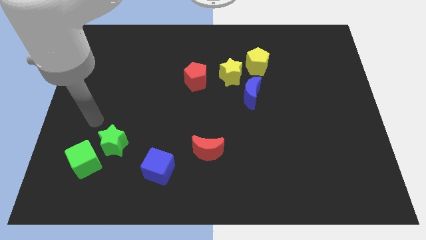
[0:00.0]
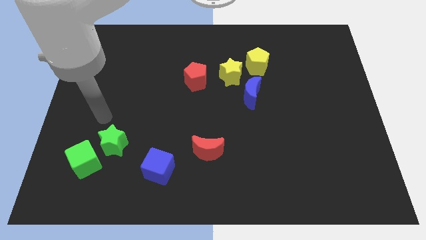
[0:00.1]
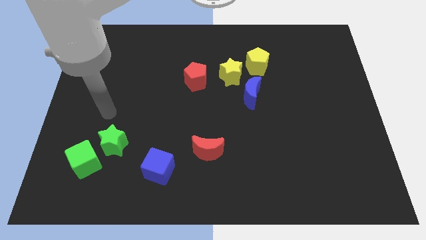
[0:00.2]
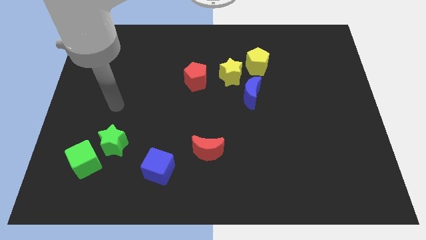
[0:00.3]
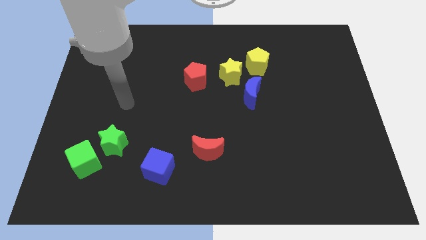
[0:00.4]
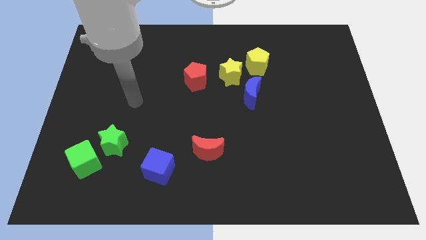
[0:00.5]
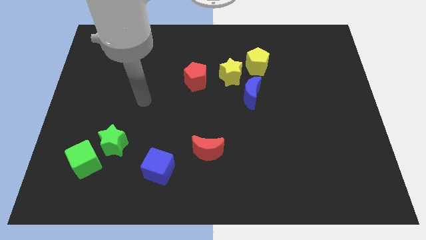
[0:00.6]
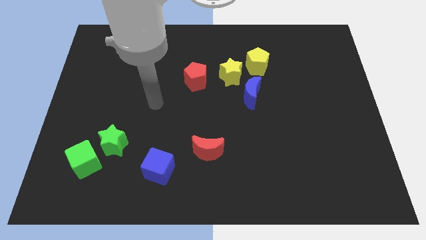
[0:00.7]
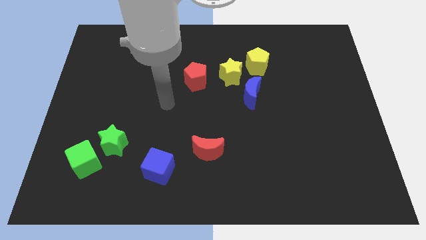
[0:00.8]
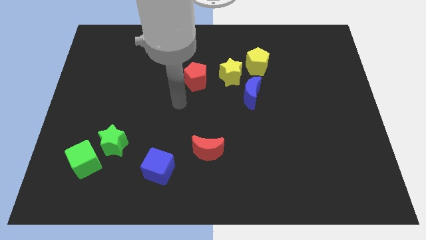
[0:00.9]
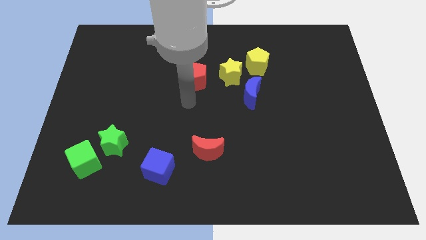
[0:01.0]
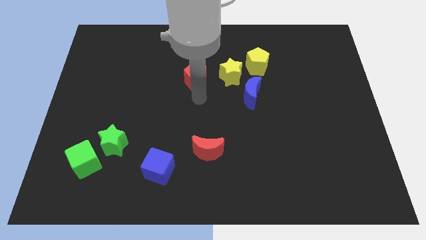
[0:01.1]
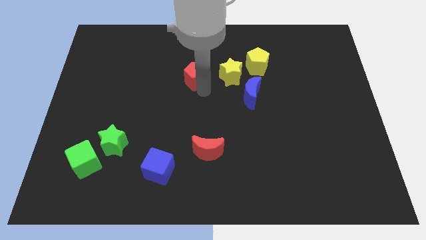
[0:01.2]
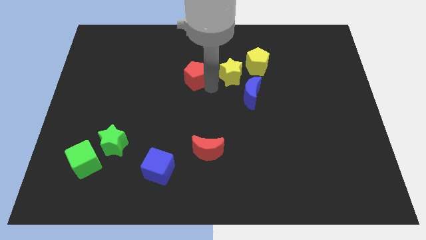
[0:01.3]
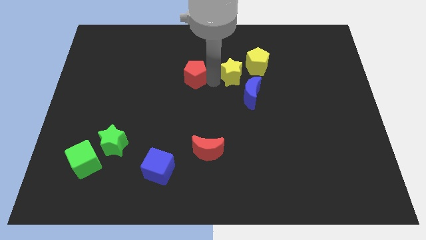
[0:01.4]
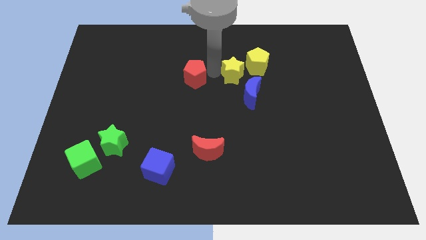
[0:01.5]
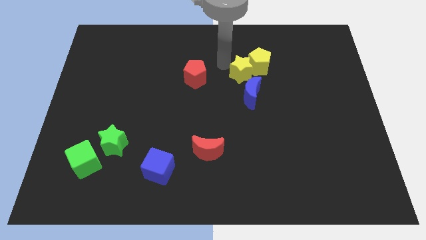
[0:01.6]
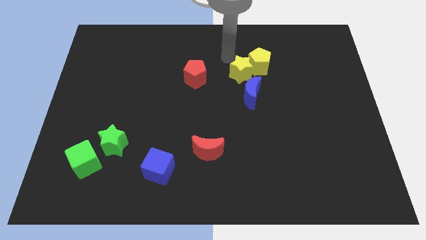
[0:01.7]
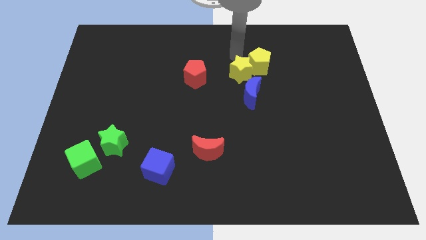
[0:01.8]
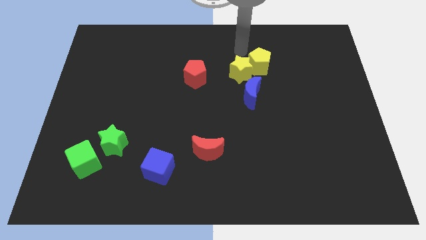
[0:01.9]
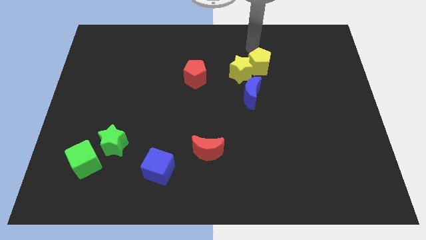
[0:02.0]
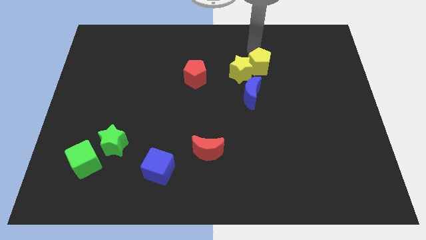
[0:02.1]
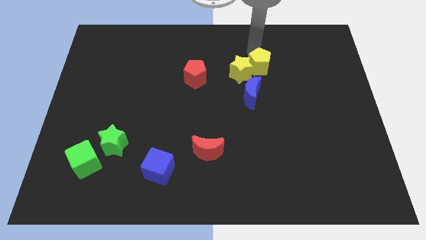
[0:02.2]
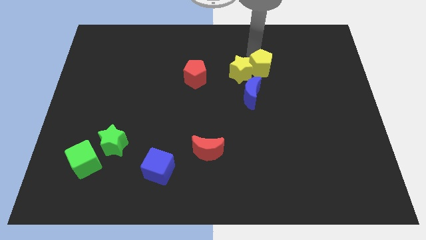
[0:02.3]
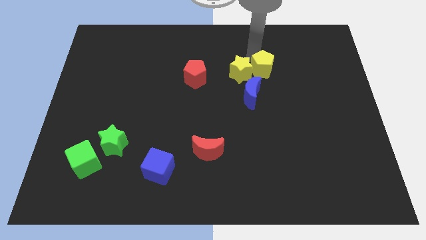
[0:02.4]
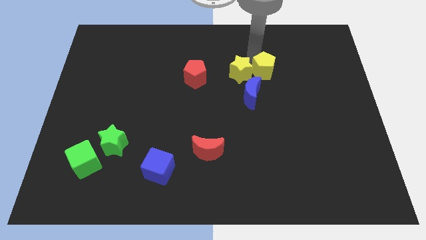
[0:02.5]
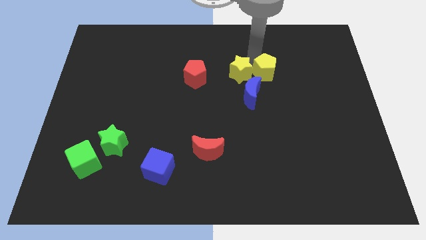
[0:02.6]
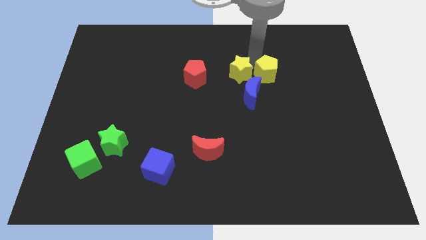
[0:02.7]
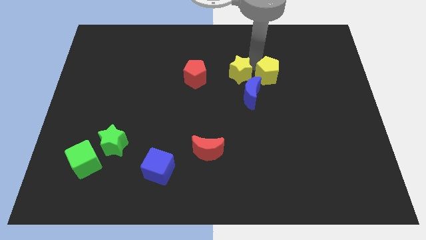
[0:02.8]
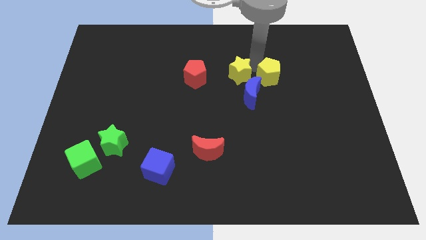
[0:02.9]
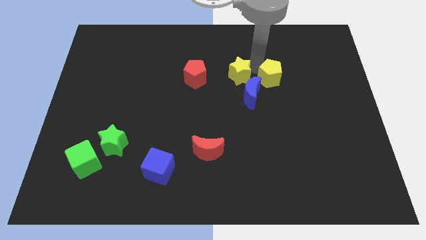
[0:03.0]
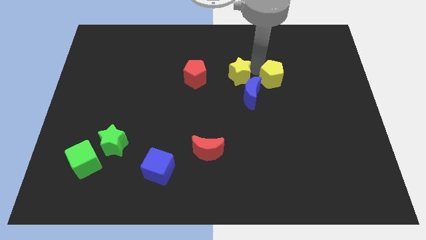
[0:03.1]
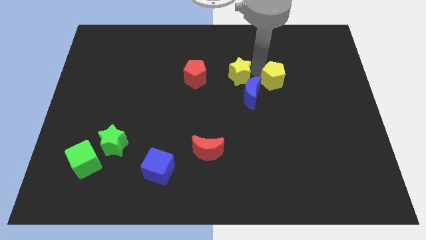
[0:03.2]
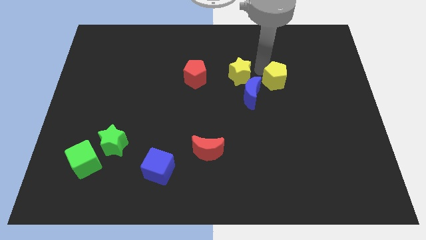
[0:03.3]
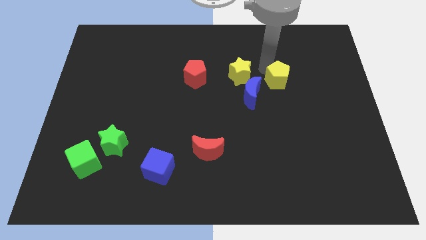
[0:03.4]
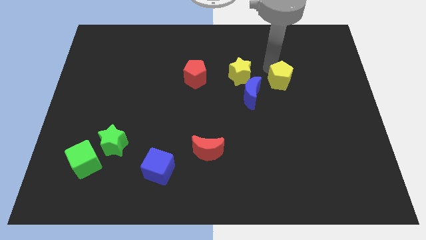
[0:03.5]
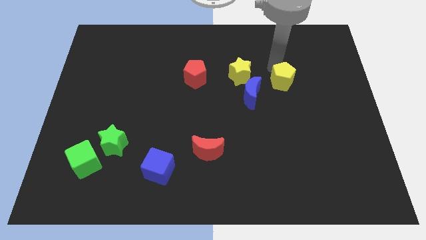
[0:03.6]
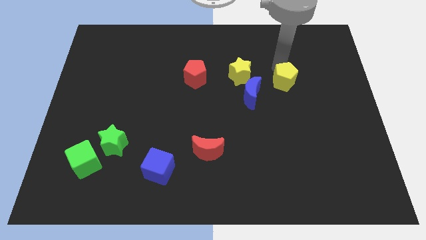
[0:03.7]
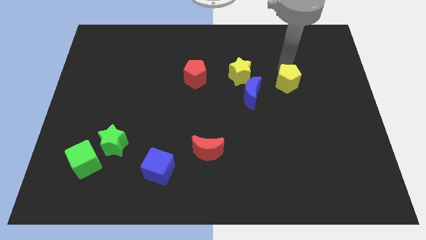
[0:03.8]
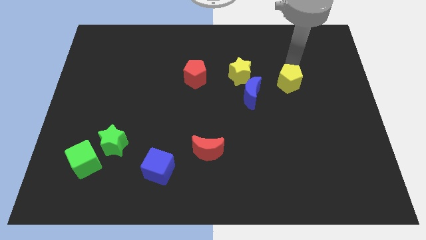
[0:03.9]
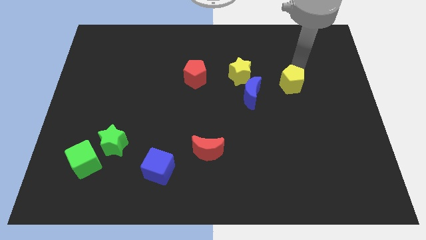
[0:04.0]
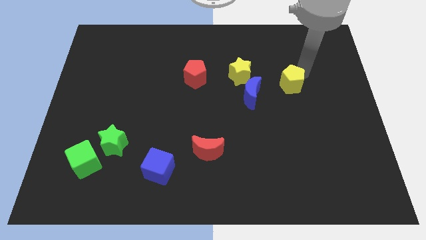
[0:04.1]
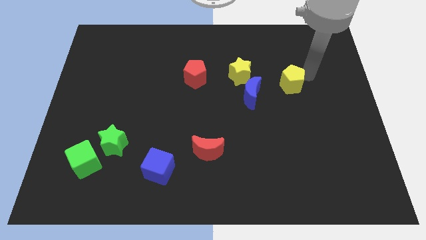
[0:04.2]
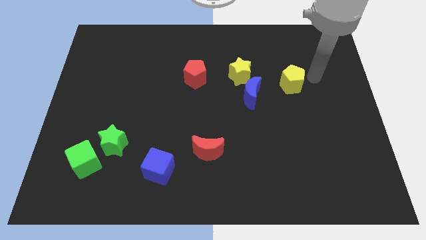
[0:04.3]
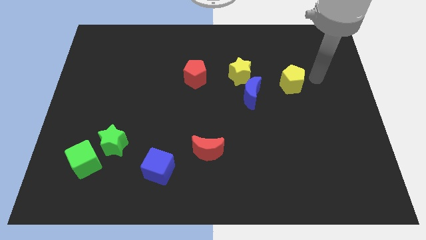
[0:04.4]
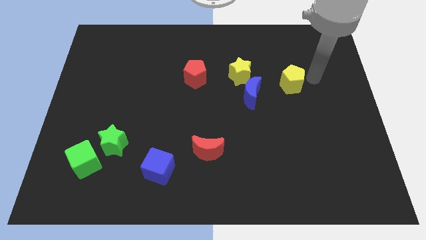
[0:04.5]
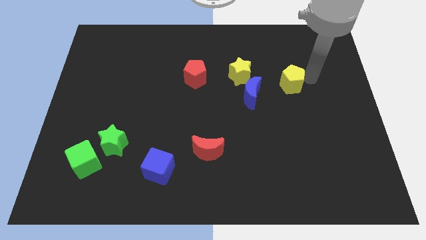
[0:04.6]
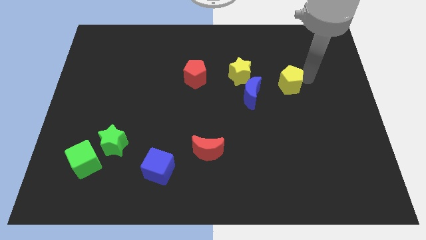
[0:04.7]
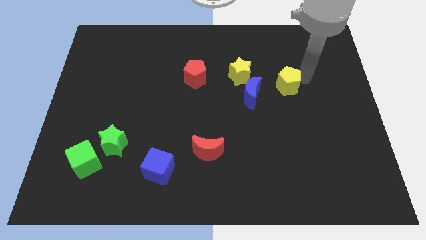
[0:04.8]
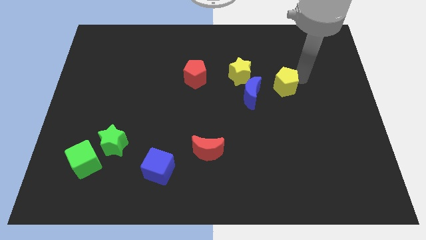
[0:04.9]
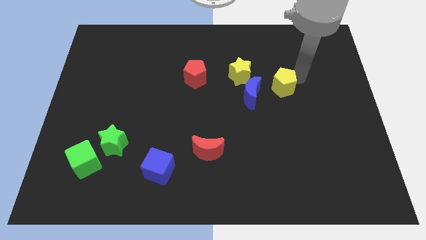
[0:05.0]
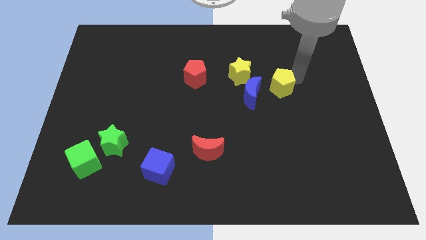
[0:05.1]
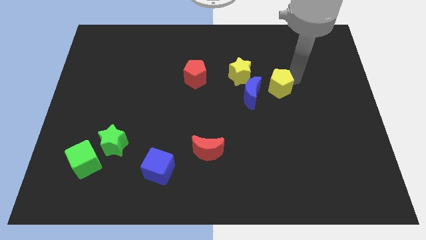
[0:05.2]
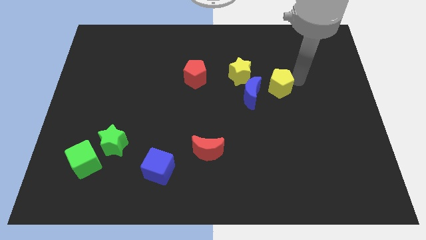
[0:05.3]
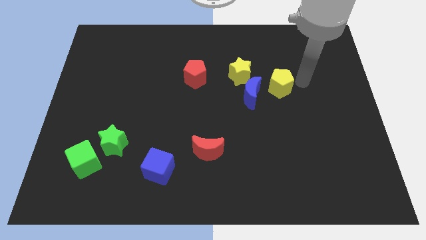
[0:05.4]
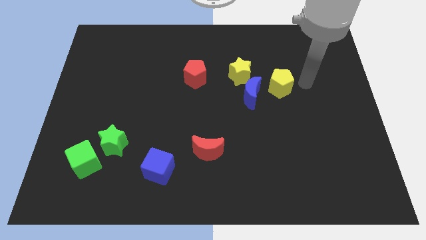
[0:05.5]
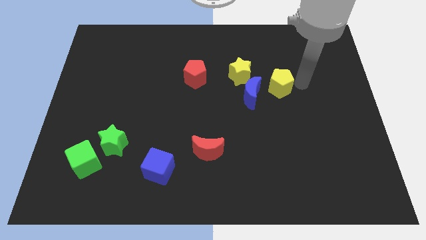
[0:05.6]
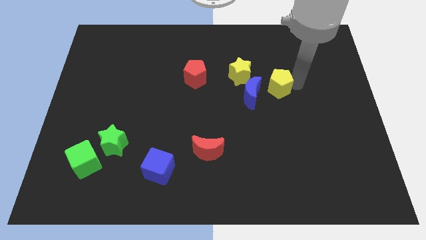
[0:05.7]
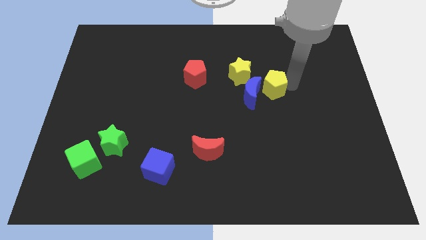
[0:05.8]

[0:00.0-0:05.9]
push the yellow pentagon downwards a bit

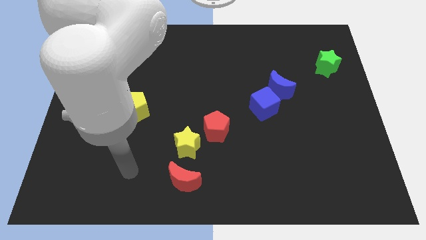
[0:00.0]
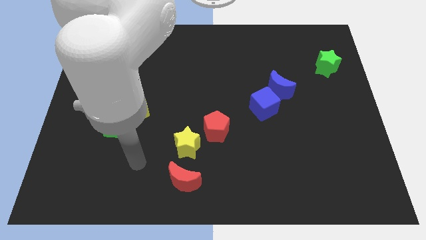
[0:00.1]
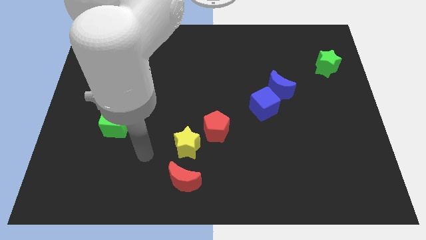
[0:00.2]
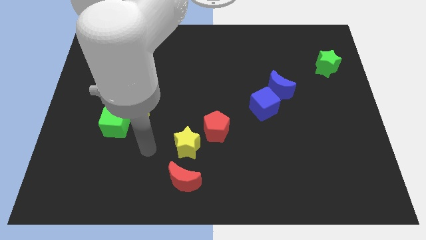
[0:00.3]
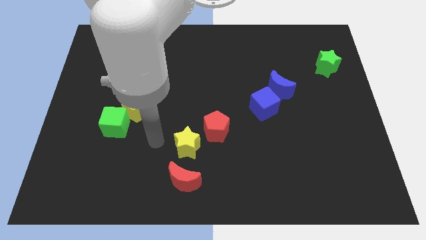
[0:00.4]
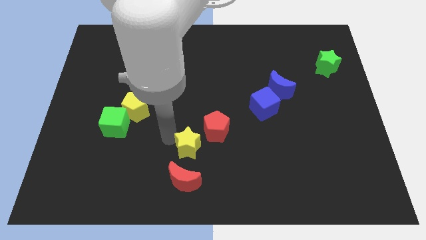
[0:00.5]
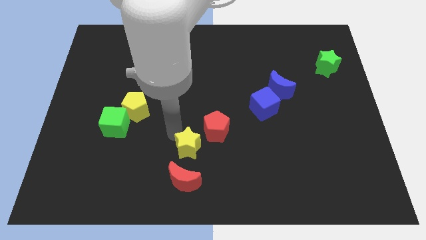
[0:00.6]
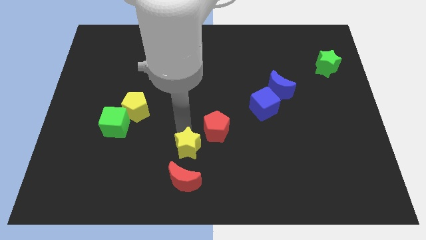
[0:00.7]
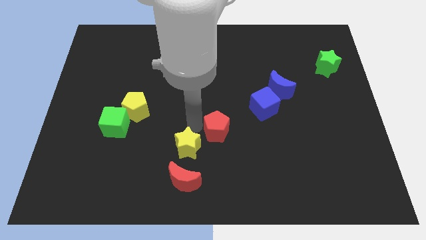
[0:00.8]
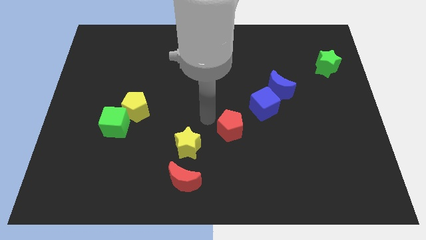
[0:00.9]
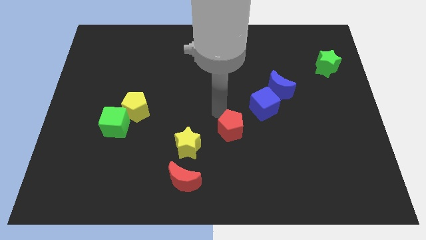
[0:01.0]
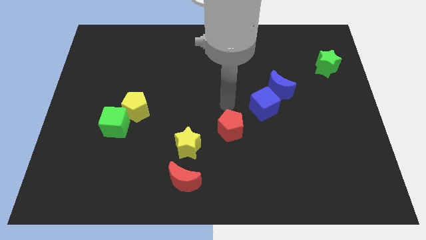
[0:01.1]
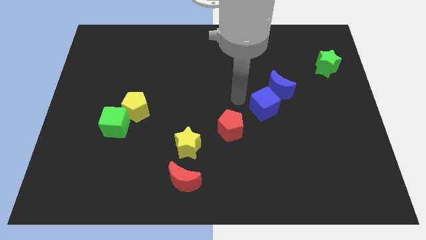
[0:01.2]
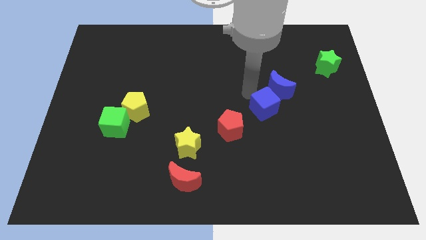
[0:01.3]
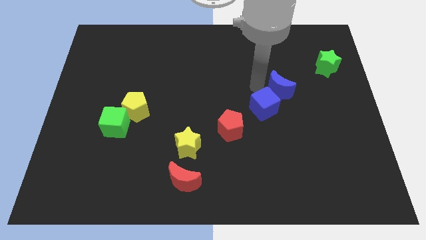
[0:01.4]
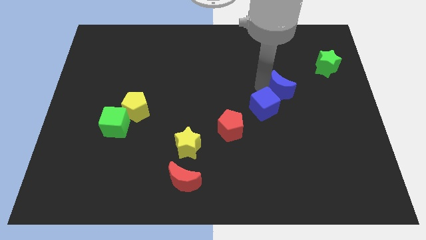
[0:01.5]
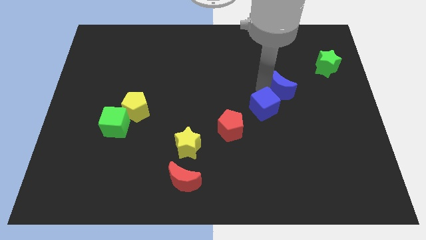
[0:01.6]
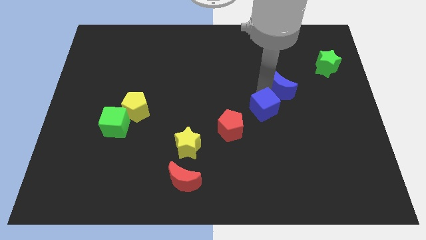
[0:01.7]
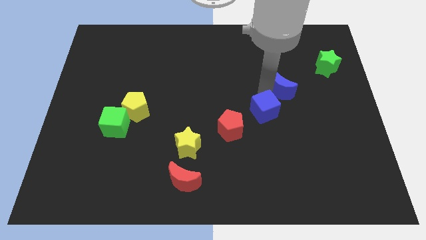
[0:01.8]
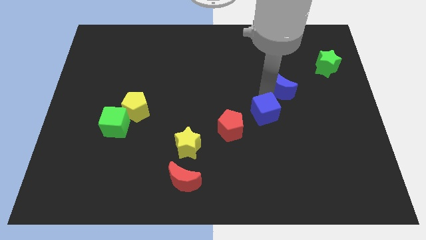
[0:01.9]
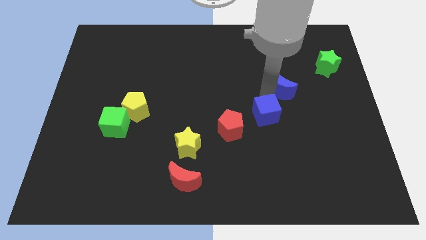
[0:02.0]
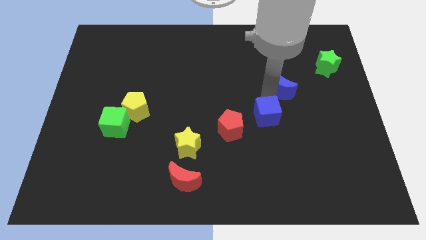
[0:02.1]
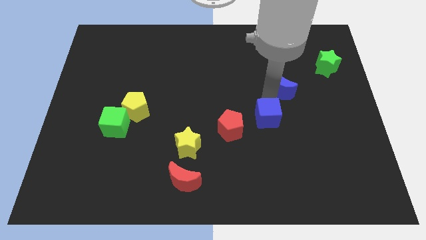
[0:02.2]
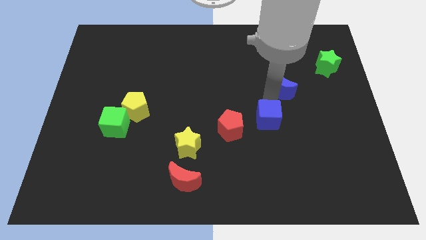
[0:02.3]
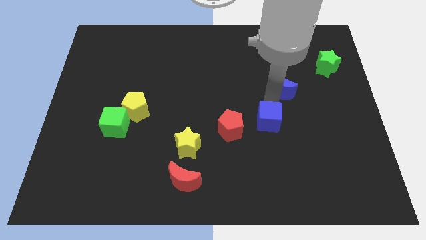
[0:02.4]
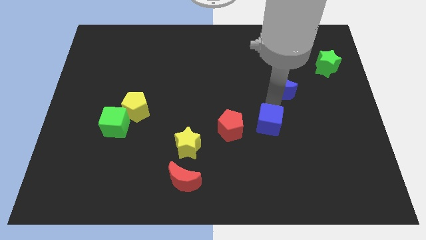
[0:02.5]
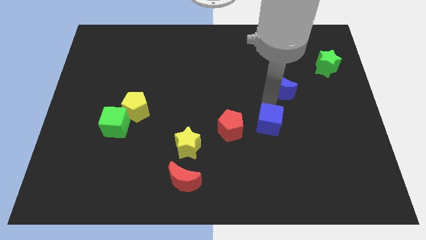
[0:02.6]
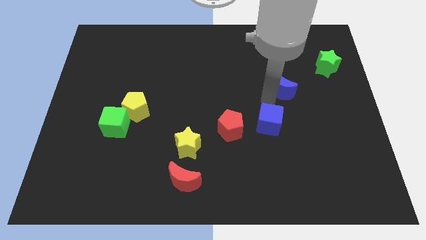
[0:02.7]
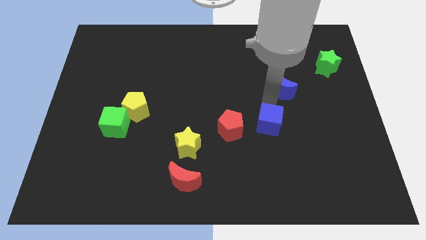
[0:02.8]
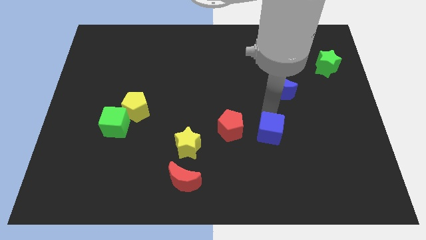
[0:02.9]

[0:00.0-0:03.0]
slide the blue cube a little bit downwards
